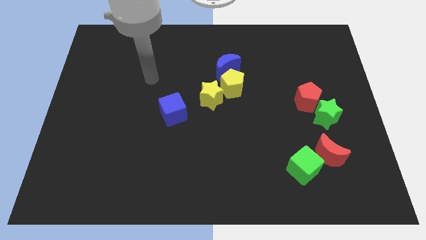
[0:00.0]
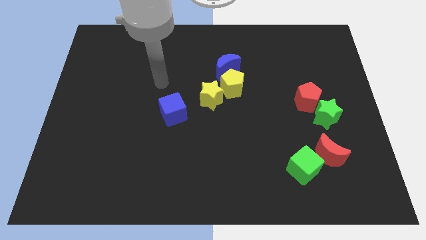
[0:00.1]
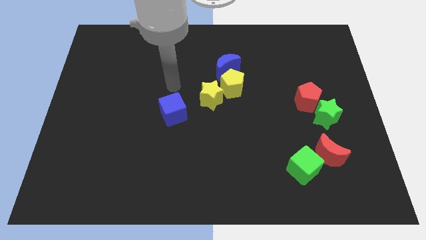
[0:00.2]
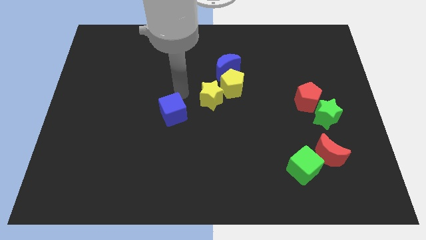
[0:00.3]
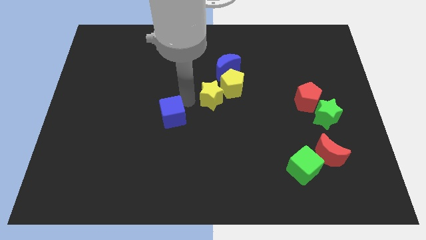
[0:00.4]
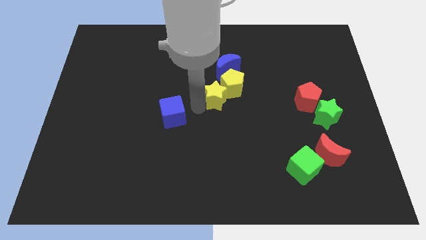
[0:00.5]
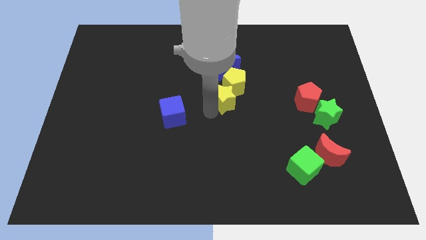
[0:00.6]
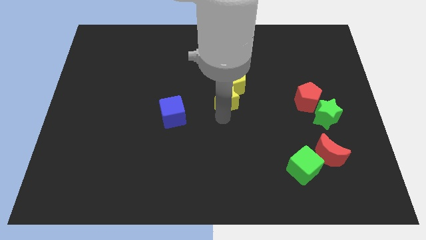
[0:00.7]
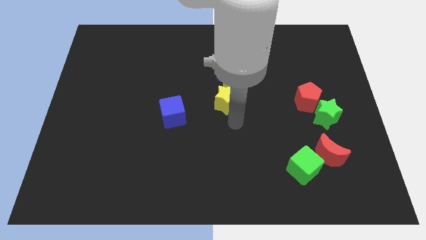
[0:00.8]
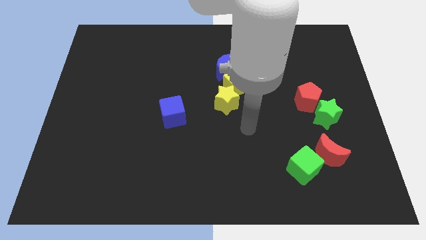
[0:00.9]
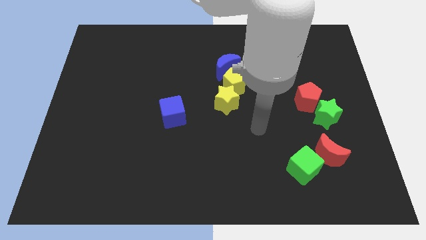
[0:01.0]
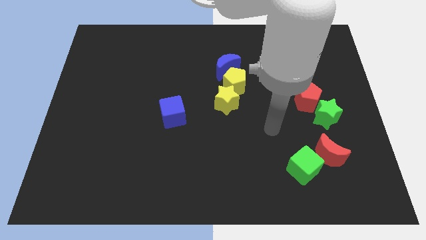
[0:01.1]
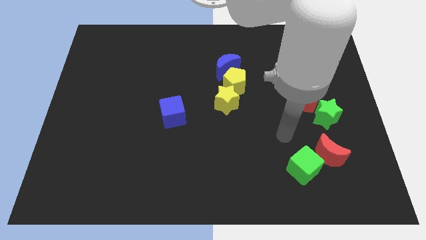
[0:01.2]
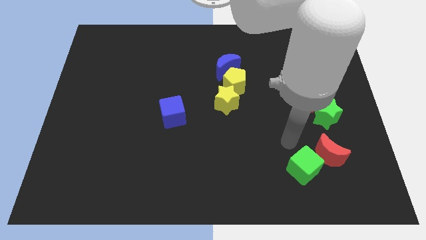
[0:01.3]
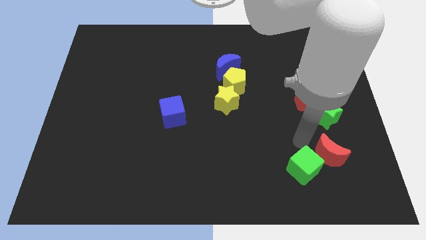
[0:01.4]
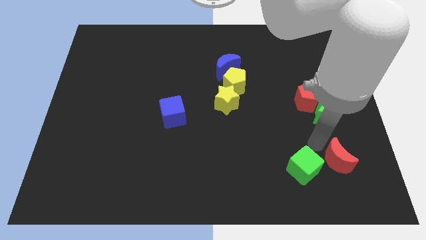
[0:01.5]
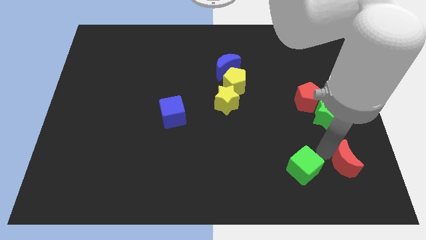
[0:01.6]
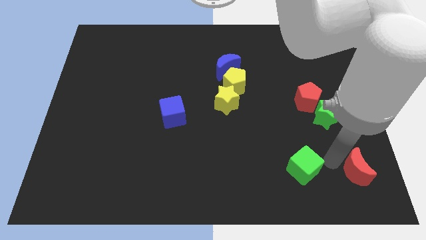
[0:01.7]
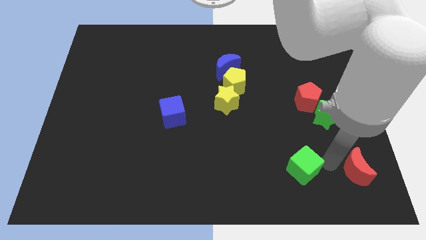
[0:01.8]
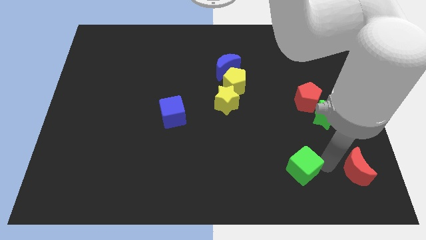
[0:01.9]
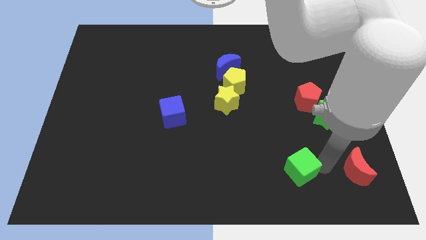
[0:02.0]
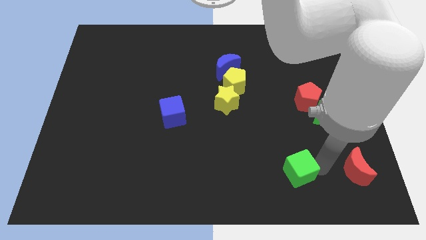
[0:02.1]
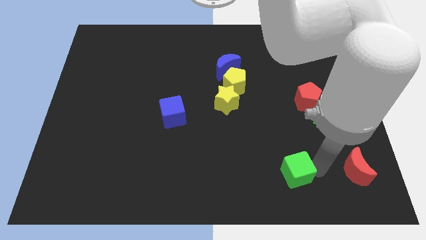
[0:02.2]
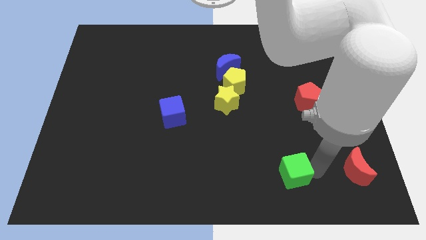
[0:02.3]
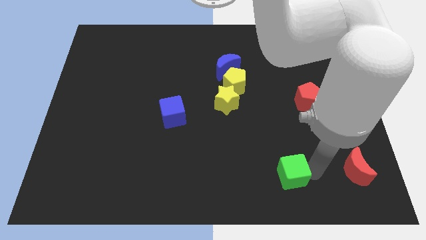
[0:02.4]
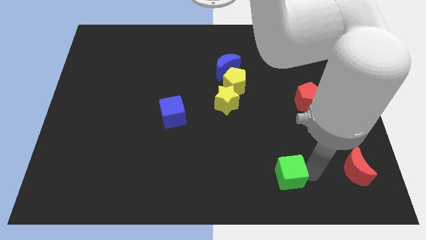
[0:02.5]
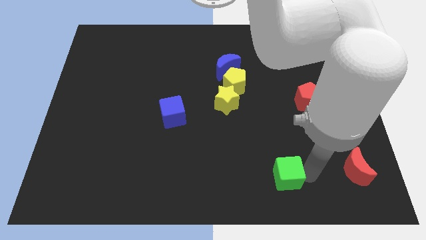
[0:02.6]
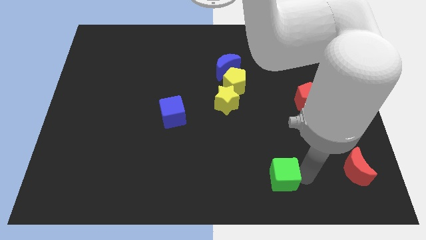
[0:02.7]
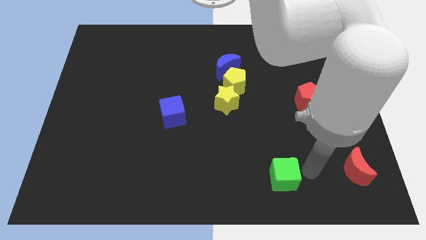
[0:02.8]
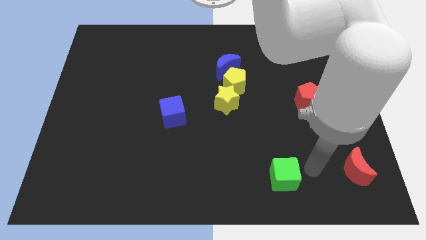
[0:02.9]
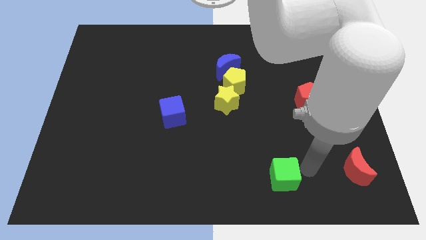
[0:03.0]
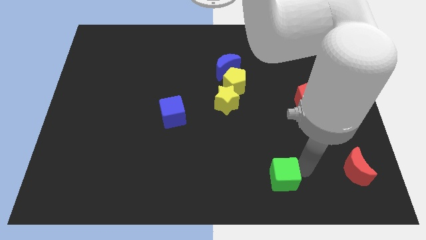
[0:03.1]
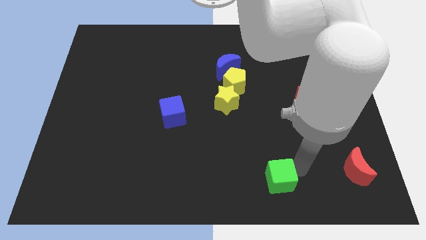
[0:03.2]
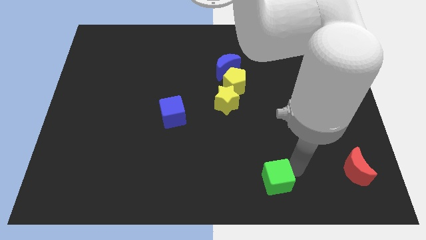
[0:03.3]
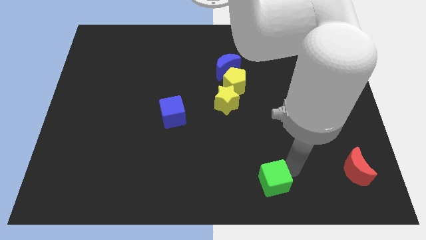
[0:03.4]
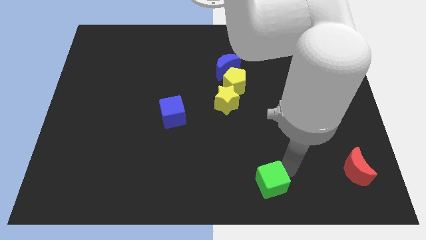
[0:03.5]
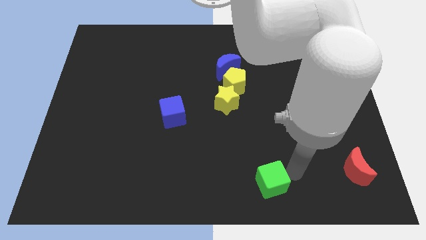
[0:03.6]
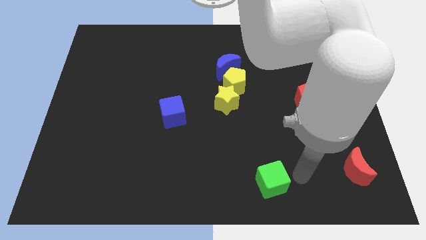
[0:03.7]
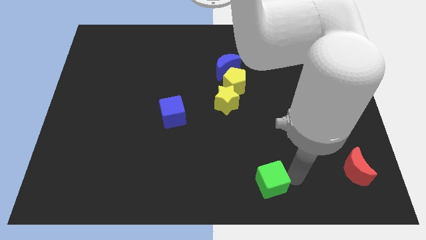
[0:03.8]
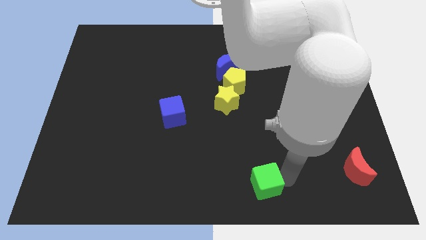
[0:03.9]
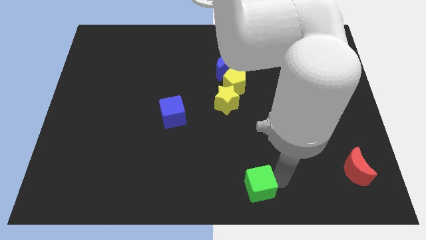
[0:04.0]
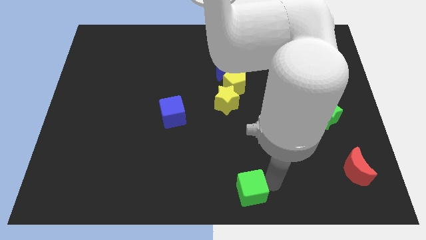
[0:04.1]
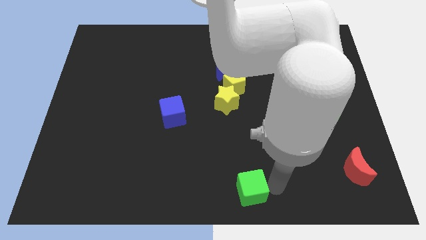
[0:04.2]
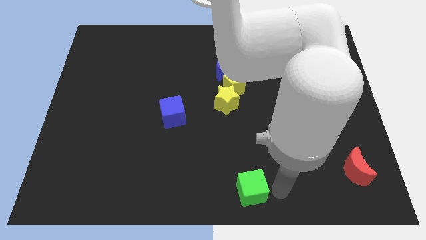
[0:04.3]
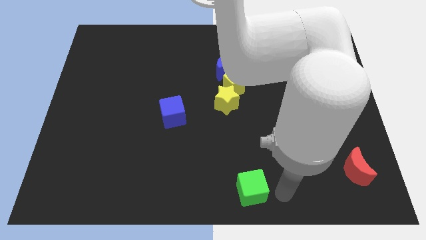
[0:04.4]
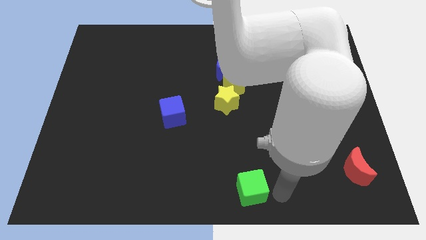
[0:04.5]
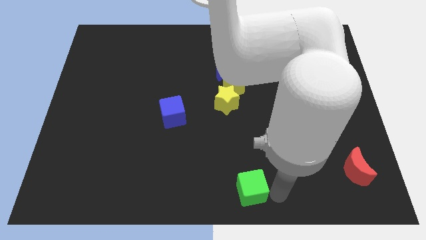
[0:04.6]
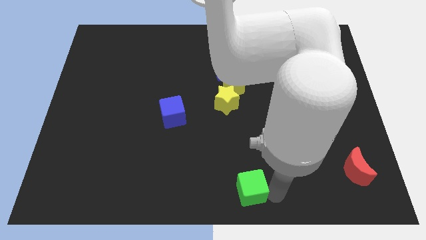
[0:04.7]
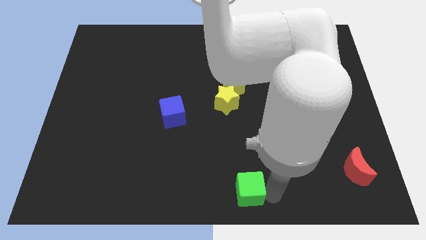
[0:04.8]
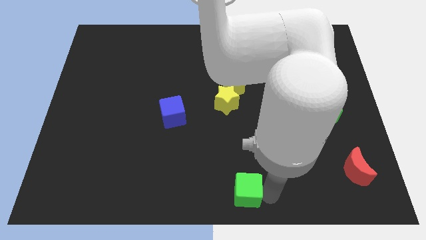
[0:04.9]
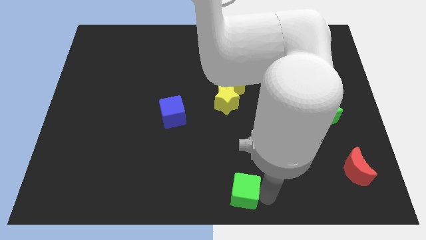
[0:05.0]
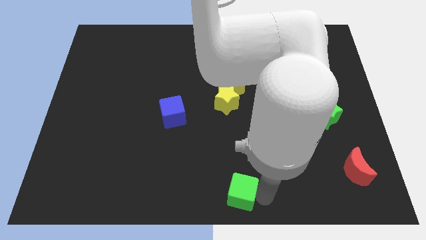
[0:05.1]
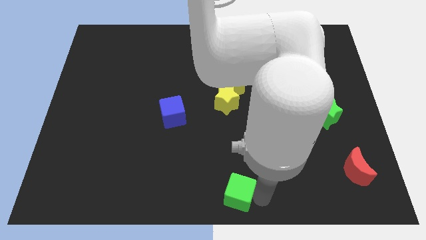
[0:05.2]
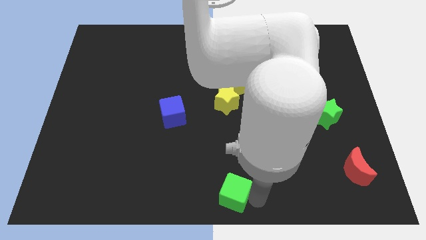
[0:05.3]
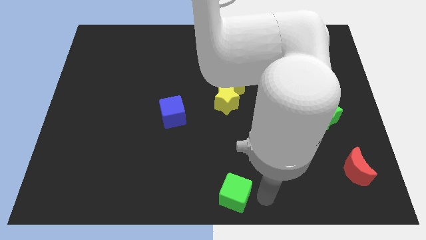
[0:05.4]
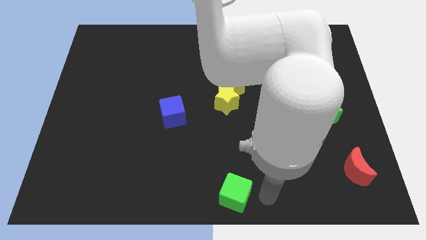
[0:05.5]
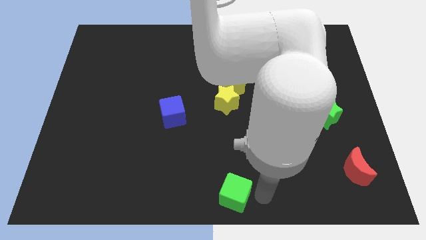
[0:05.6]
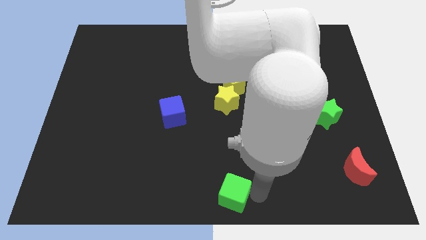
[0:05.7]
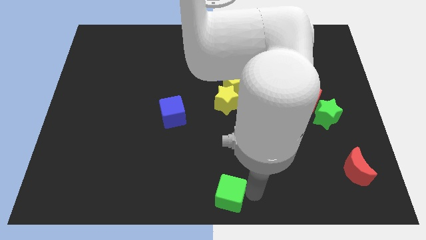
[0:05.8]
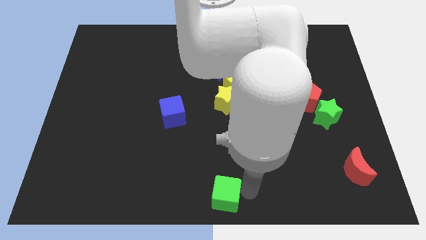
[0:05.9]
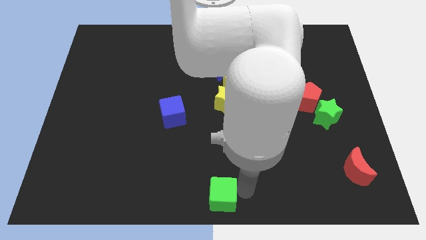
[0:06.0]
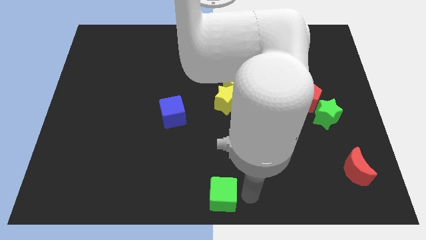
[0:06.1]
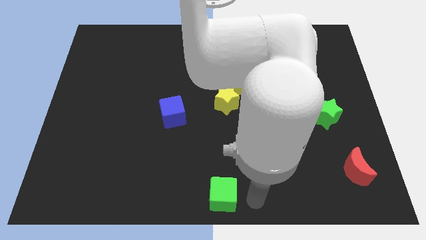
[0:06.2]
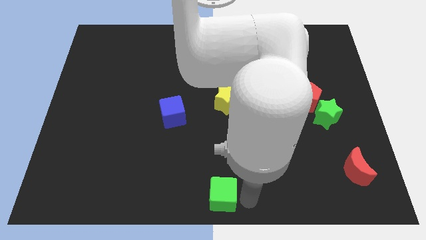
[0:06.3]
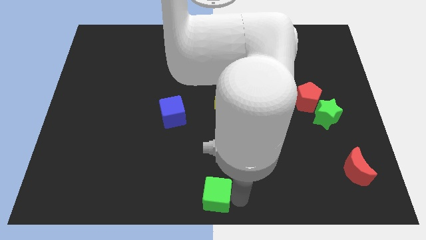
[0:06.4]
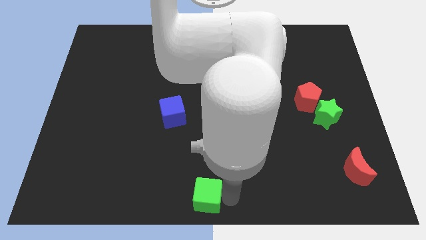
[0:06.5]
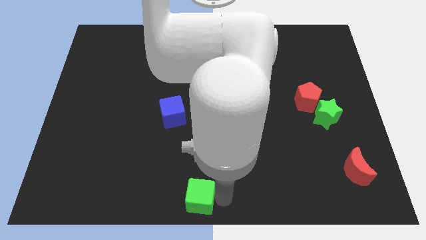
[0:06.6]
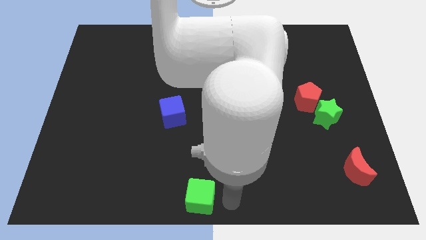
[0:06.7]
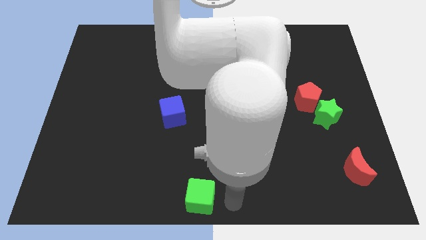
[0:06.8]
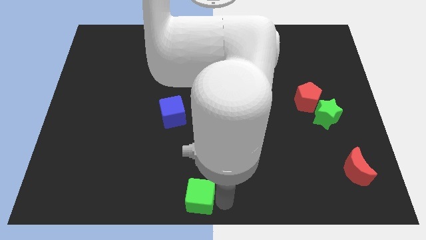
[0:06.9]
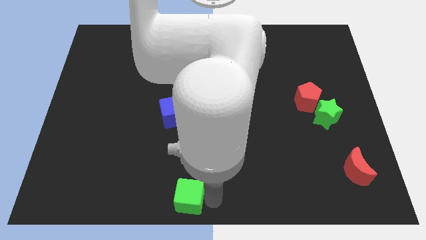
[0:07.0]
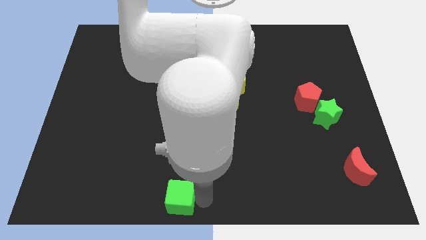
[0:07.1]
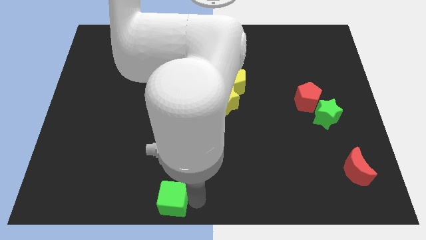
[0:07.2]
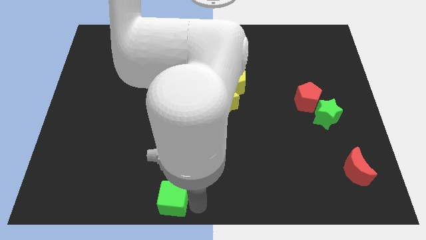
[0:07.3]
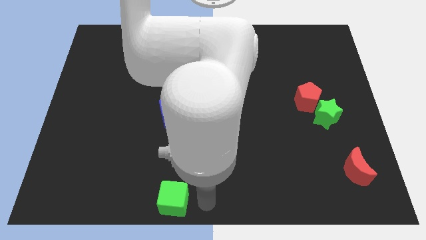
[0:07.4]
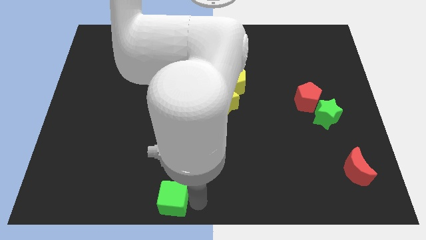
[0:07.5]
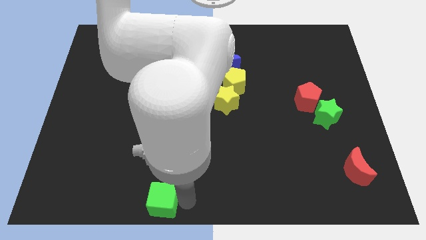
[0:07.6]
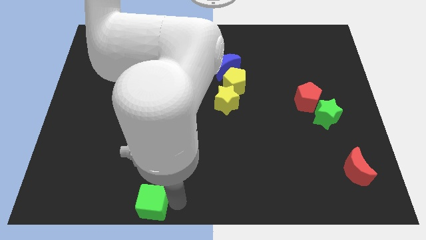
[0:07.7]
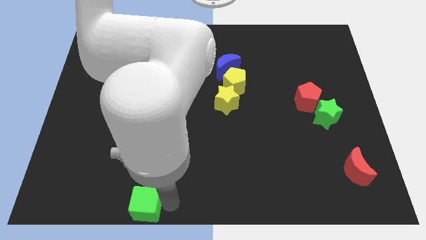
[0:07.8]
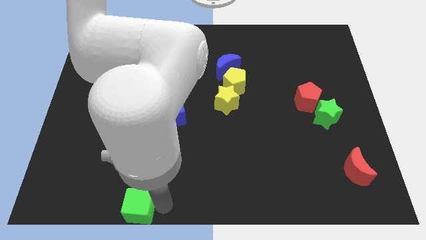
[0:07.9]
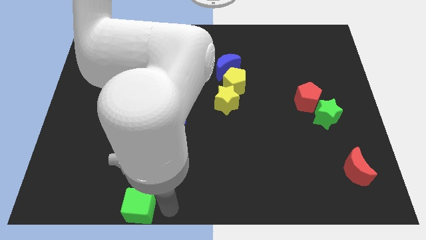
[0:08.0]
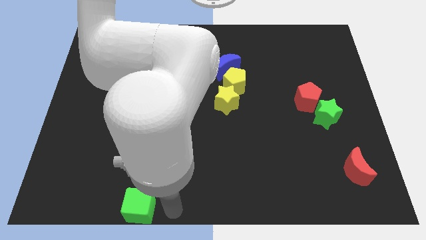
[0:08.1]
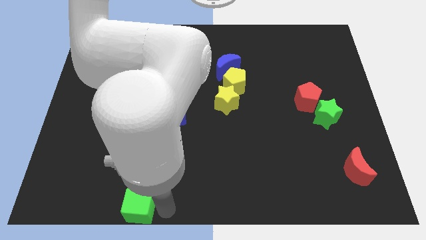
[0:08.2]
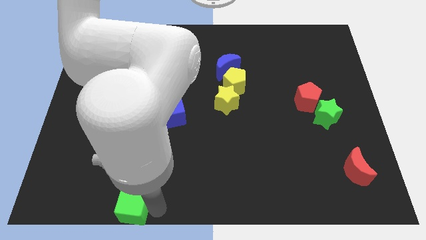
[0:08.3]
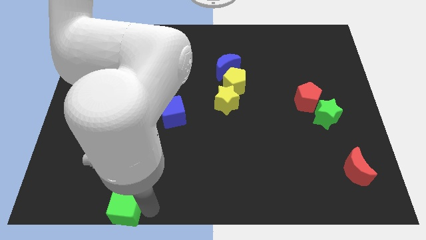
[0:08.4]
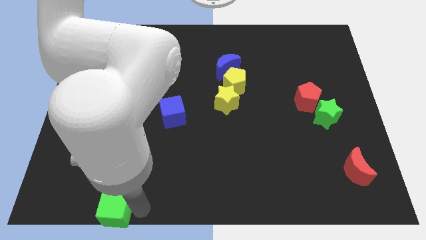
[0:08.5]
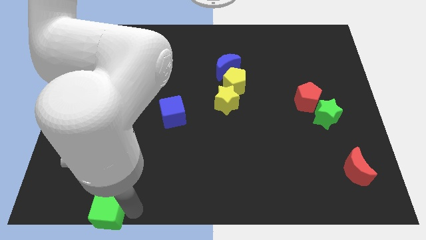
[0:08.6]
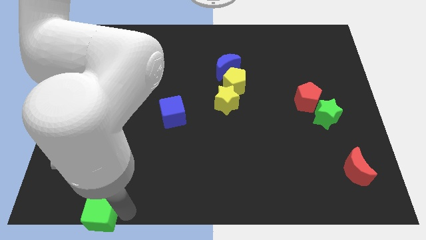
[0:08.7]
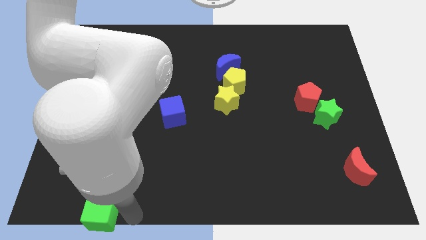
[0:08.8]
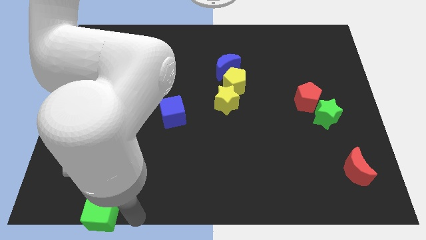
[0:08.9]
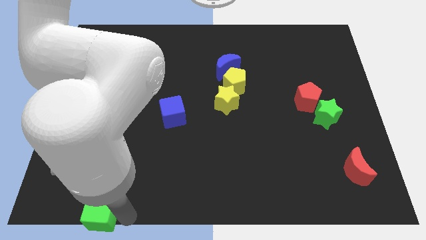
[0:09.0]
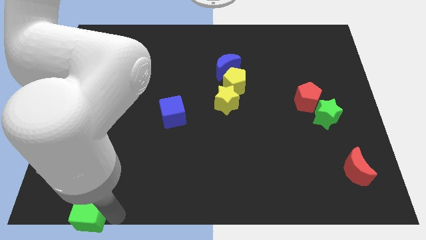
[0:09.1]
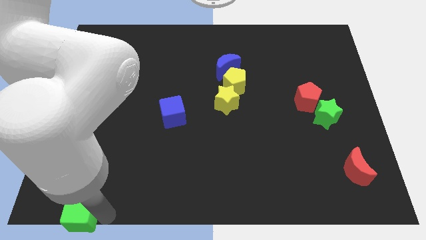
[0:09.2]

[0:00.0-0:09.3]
move the green cube to the bottom left corner
